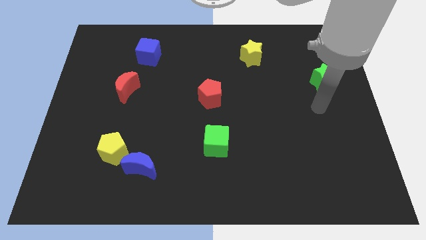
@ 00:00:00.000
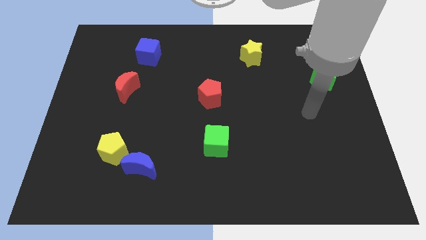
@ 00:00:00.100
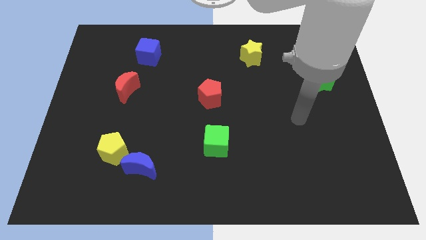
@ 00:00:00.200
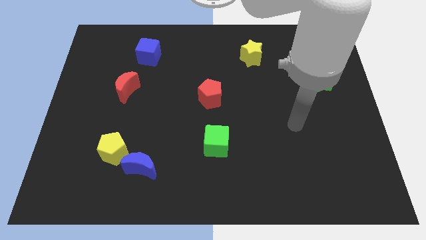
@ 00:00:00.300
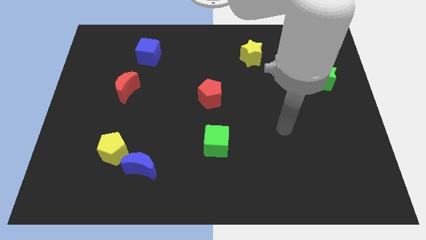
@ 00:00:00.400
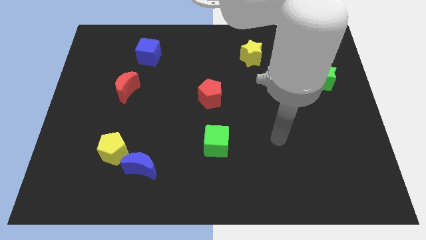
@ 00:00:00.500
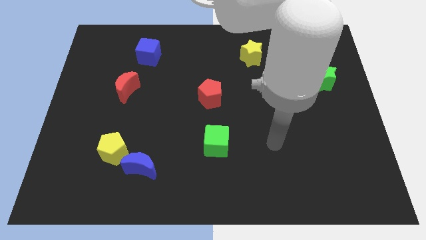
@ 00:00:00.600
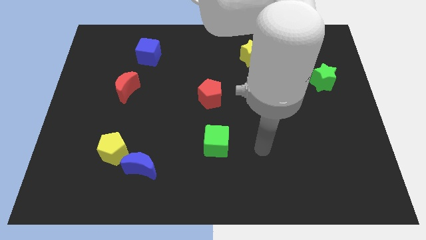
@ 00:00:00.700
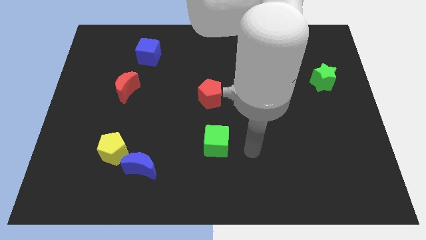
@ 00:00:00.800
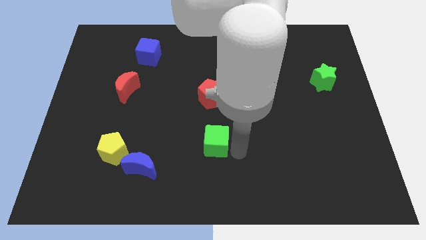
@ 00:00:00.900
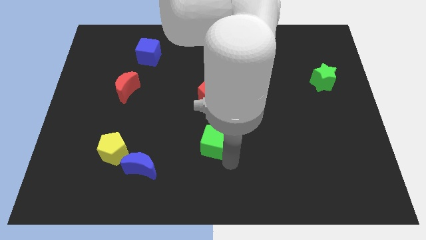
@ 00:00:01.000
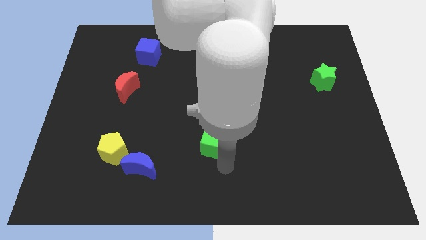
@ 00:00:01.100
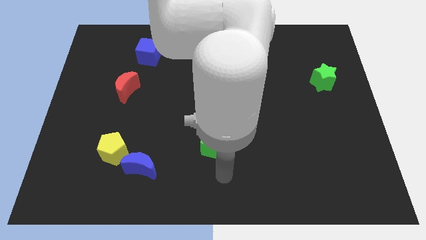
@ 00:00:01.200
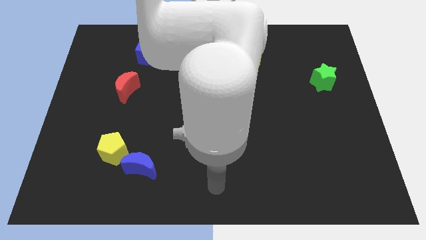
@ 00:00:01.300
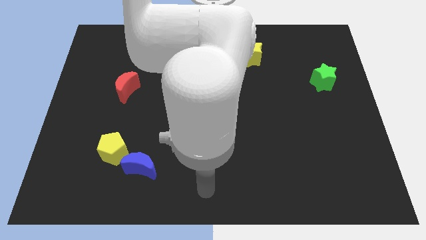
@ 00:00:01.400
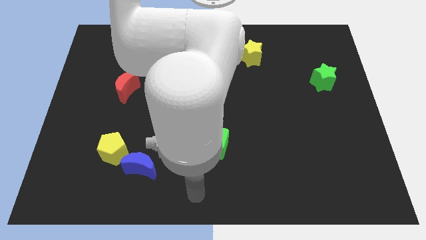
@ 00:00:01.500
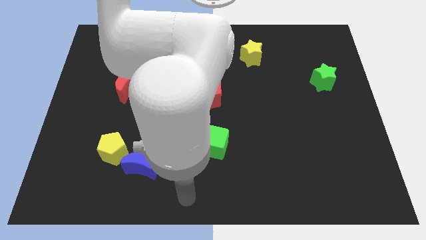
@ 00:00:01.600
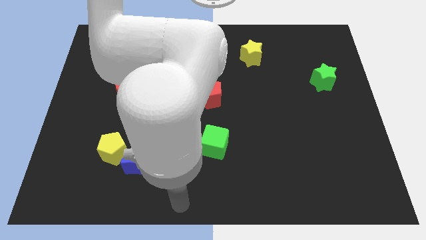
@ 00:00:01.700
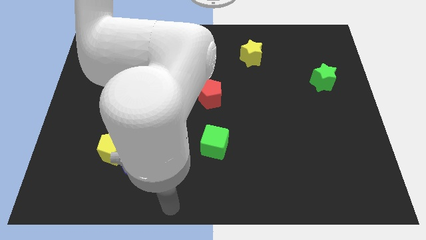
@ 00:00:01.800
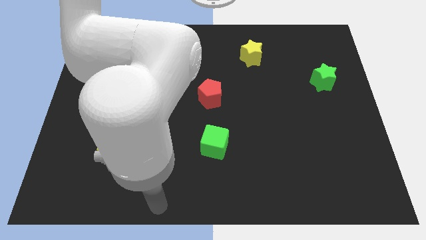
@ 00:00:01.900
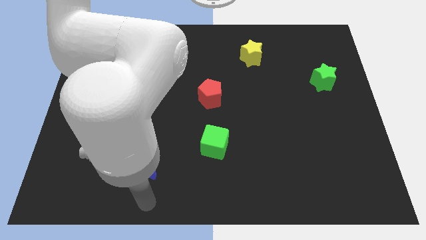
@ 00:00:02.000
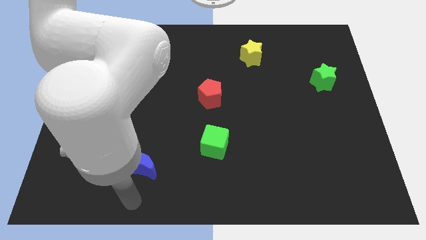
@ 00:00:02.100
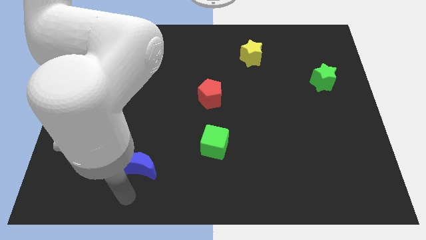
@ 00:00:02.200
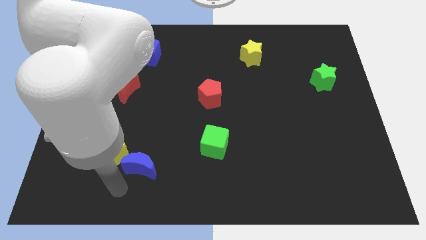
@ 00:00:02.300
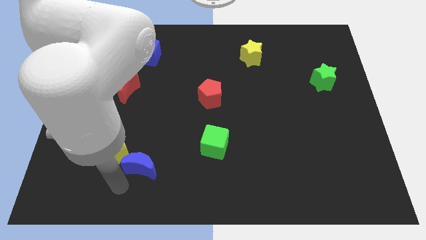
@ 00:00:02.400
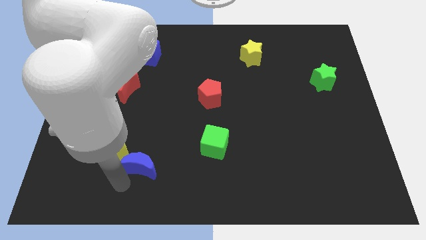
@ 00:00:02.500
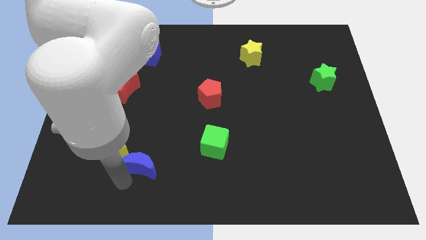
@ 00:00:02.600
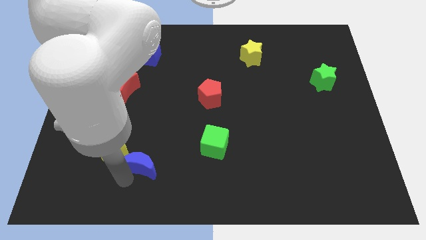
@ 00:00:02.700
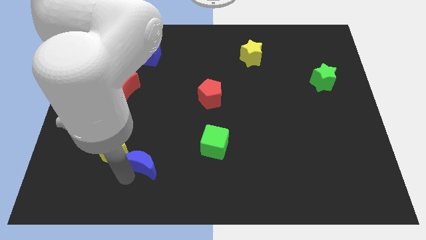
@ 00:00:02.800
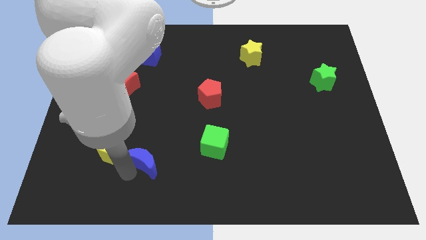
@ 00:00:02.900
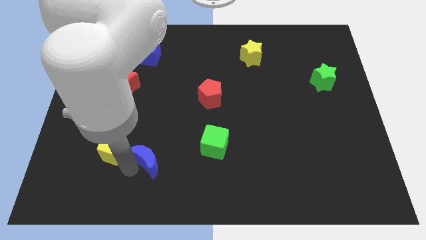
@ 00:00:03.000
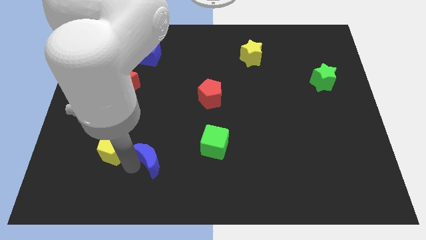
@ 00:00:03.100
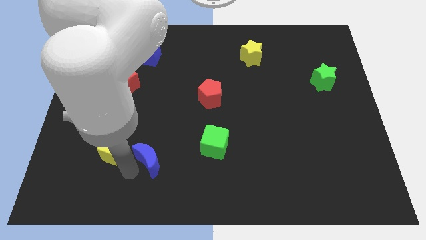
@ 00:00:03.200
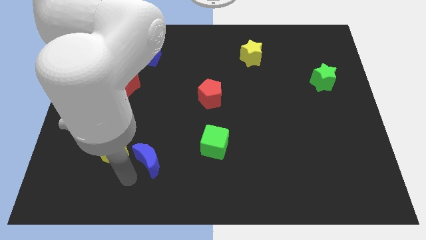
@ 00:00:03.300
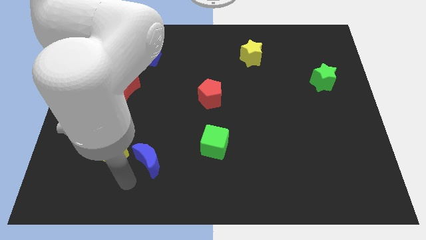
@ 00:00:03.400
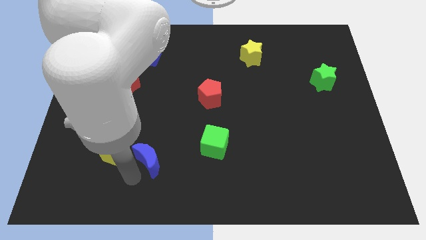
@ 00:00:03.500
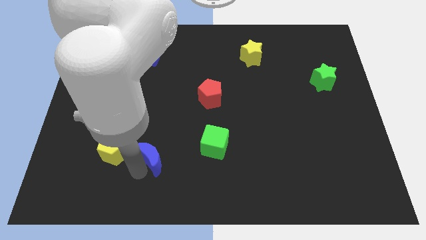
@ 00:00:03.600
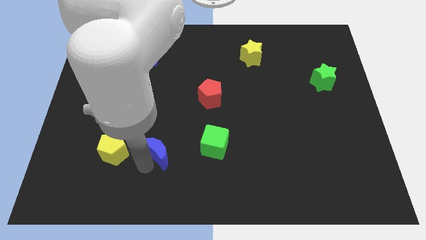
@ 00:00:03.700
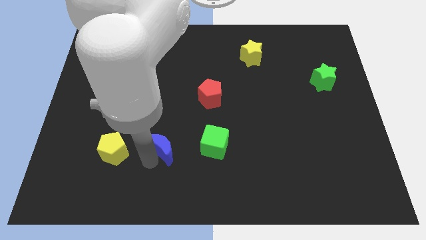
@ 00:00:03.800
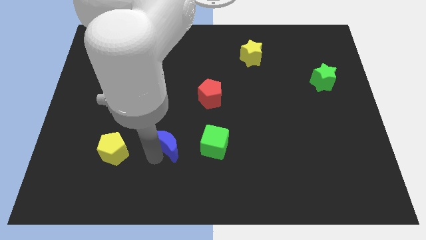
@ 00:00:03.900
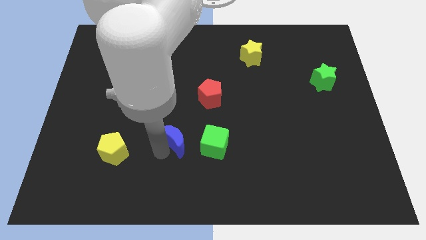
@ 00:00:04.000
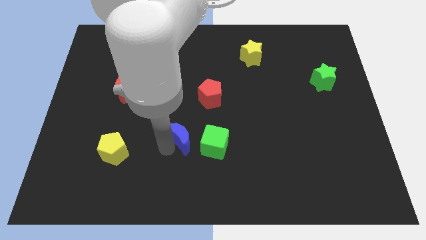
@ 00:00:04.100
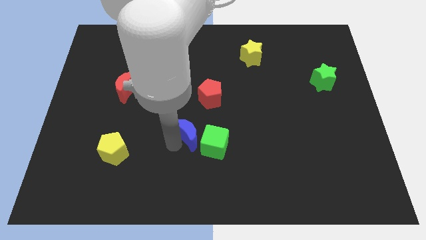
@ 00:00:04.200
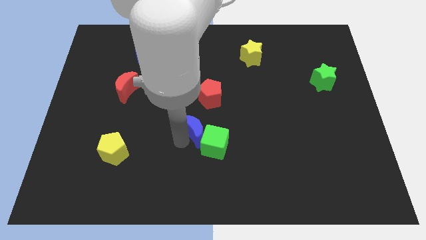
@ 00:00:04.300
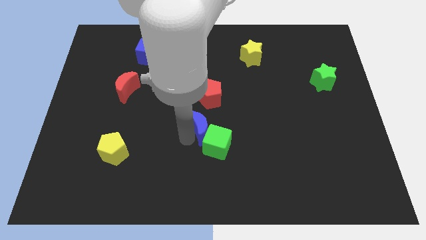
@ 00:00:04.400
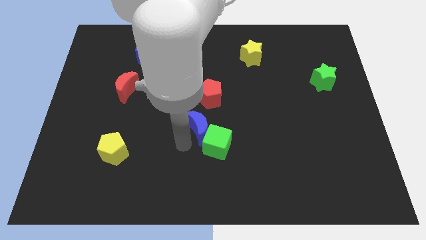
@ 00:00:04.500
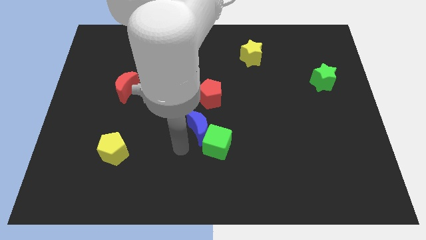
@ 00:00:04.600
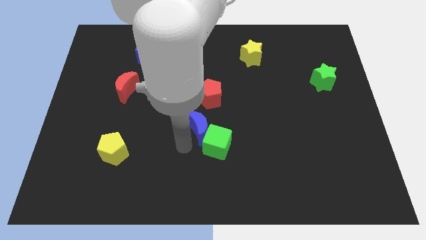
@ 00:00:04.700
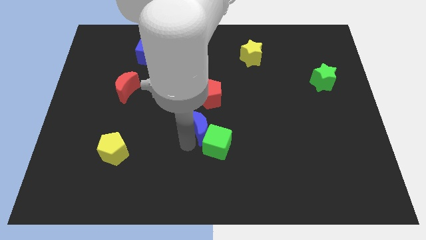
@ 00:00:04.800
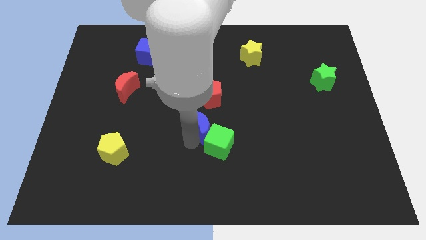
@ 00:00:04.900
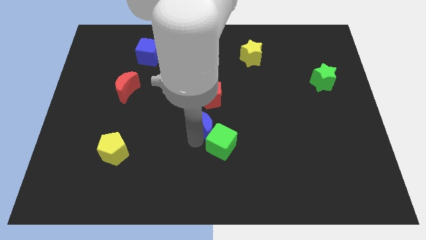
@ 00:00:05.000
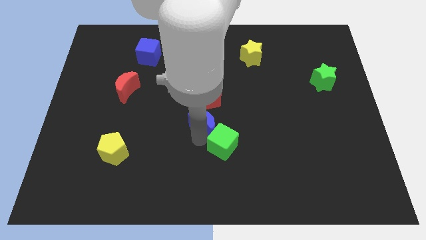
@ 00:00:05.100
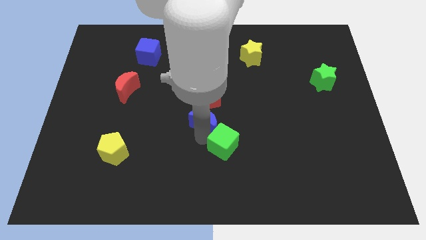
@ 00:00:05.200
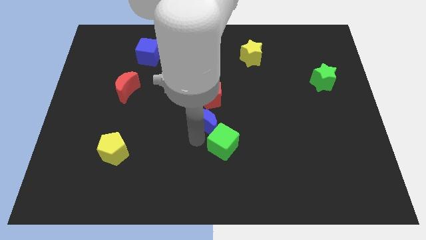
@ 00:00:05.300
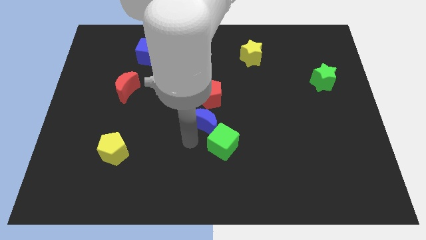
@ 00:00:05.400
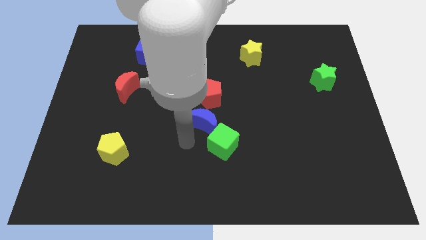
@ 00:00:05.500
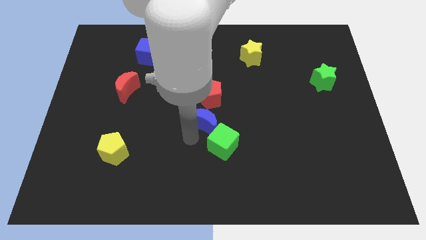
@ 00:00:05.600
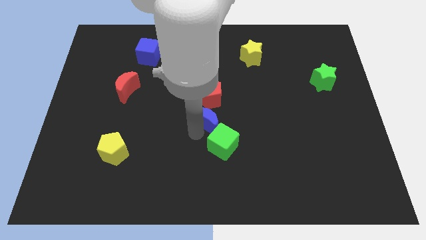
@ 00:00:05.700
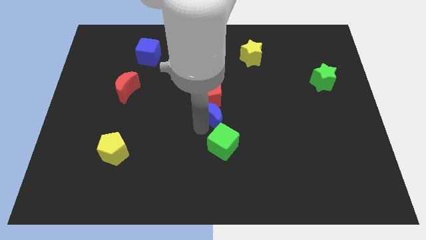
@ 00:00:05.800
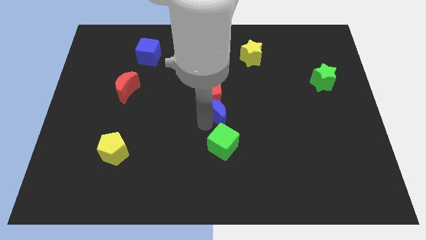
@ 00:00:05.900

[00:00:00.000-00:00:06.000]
slide the blue moon diagonally upwards and to the right

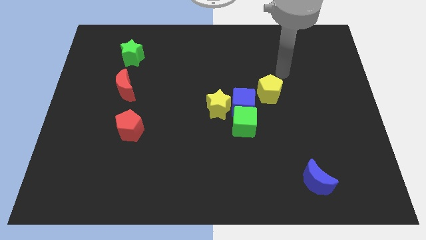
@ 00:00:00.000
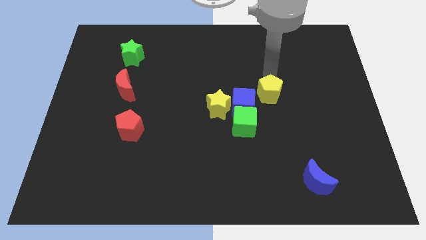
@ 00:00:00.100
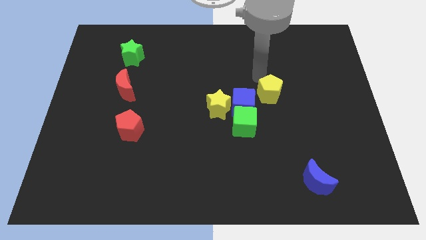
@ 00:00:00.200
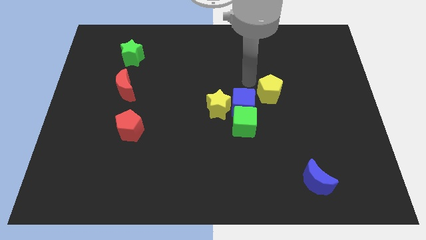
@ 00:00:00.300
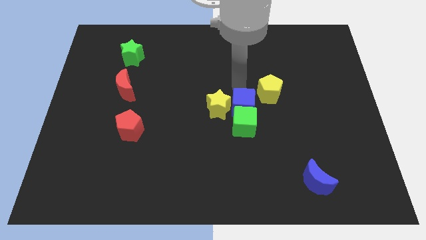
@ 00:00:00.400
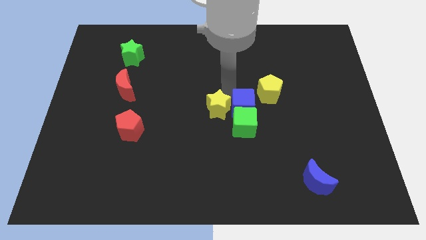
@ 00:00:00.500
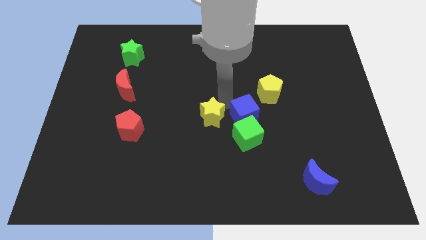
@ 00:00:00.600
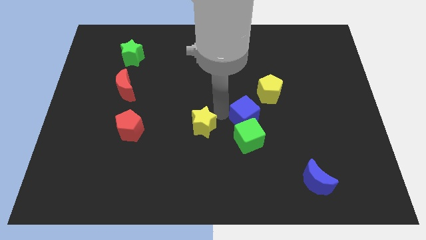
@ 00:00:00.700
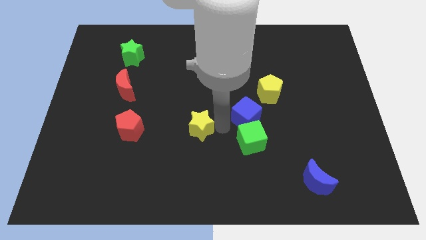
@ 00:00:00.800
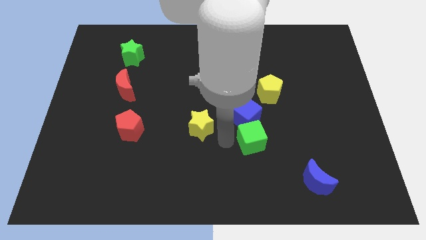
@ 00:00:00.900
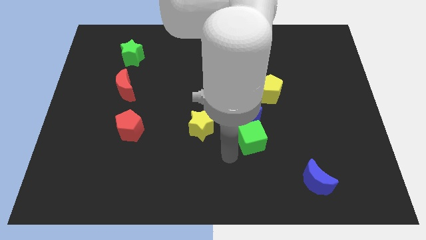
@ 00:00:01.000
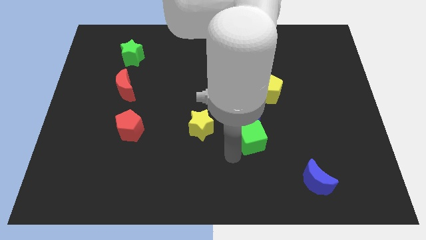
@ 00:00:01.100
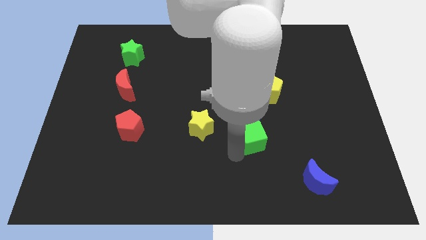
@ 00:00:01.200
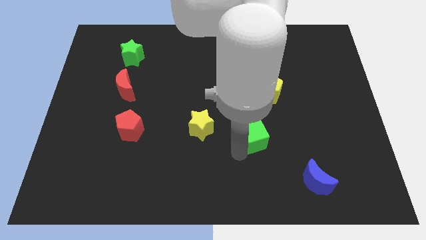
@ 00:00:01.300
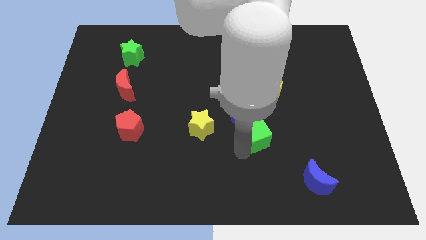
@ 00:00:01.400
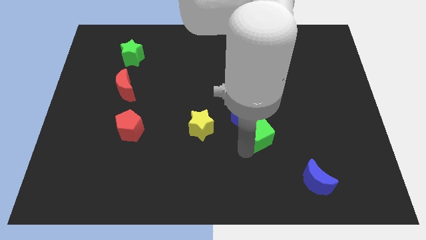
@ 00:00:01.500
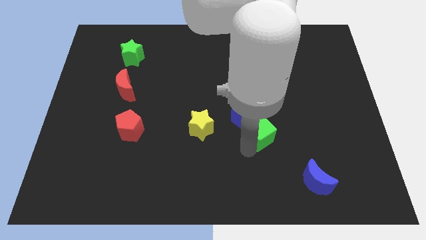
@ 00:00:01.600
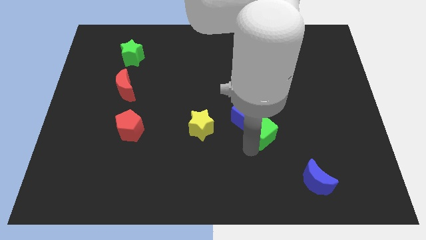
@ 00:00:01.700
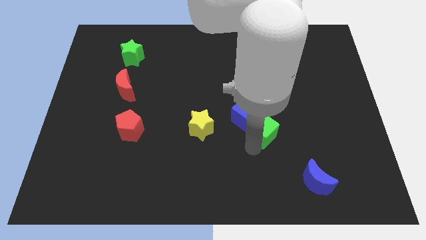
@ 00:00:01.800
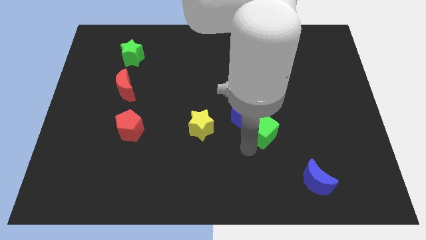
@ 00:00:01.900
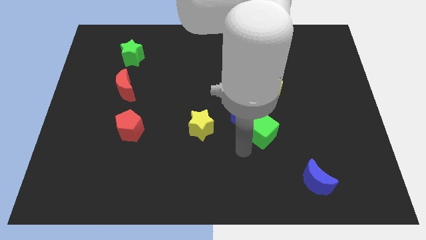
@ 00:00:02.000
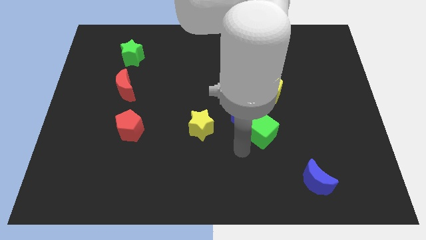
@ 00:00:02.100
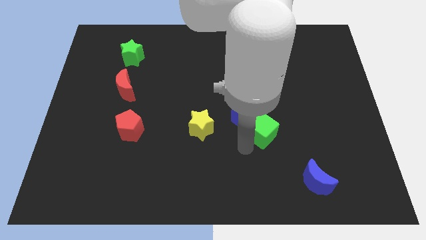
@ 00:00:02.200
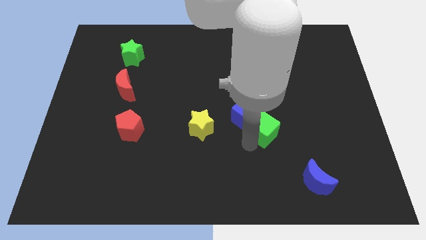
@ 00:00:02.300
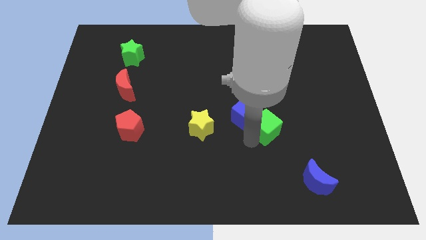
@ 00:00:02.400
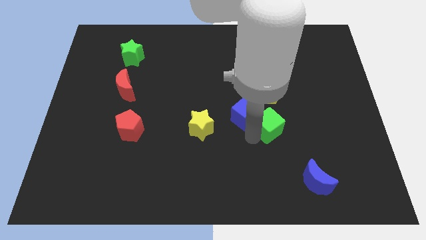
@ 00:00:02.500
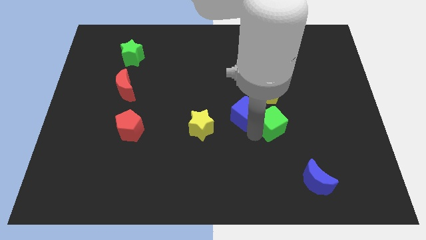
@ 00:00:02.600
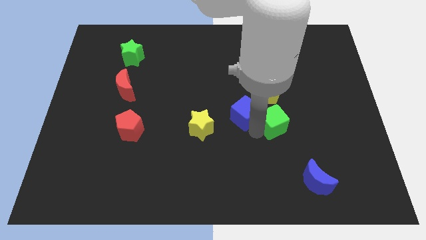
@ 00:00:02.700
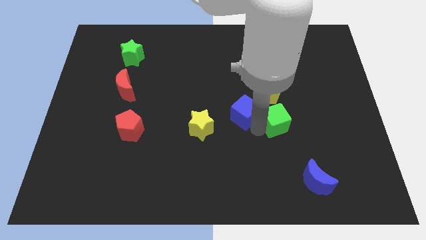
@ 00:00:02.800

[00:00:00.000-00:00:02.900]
slightly slide the green cube to the right
